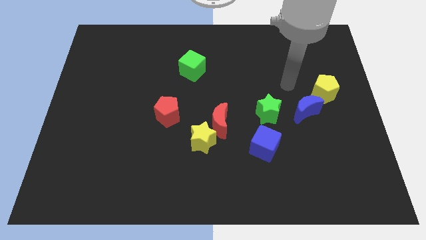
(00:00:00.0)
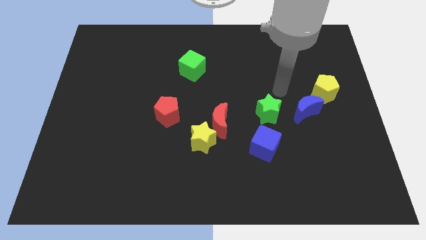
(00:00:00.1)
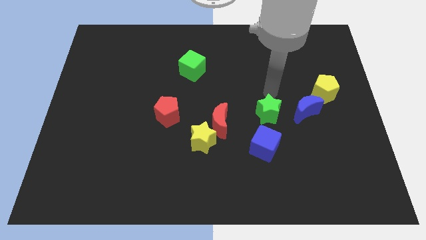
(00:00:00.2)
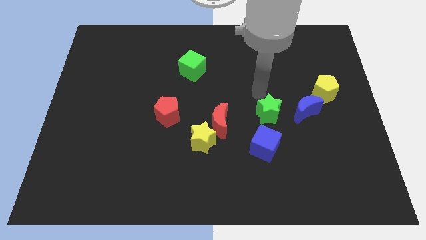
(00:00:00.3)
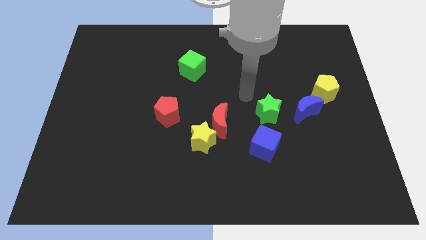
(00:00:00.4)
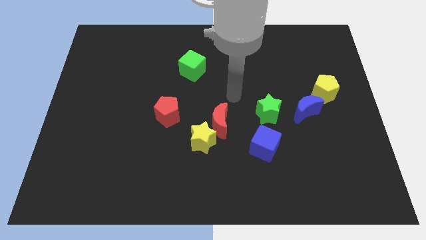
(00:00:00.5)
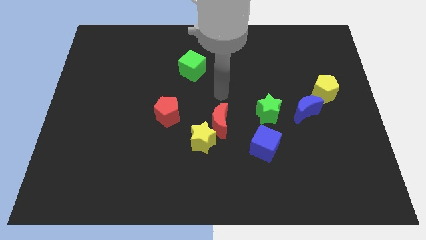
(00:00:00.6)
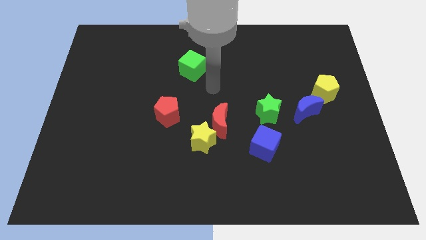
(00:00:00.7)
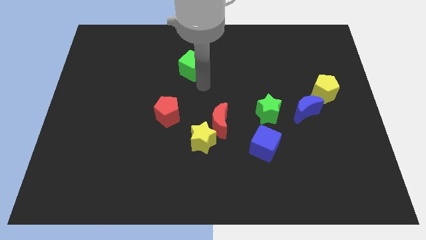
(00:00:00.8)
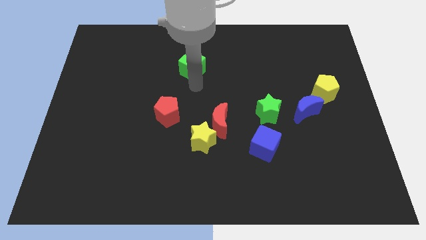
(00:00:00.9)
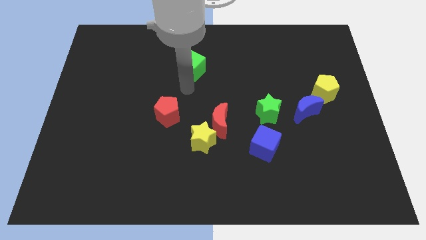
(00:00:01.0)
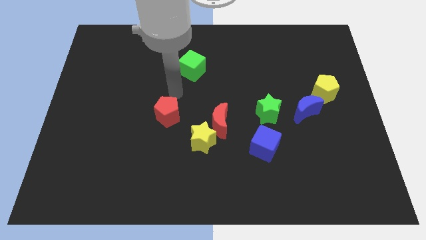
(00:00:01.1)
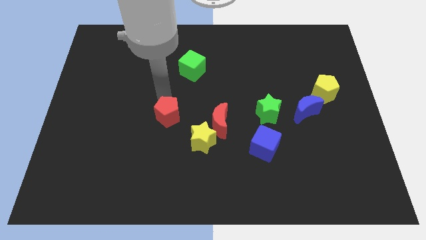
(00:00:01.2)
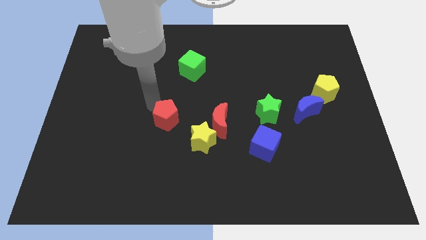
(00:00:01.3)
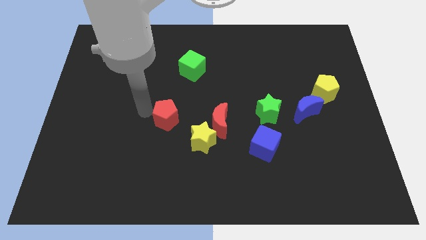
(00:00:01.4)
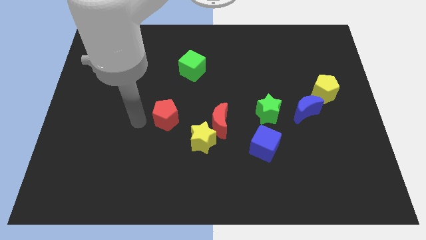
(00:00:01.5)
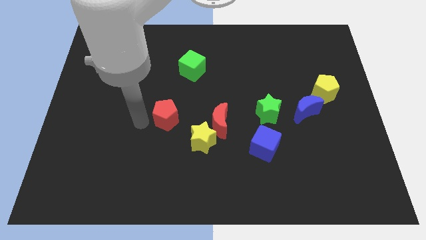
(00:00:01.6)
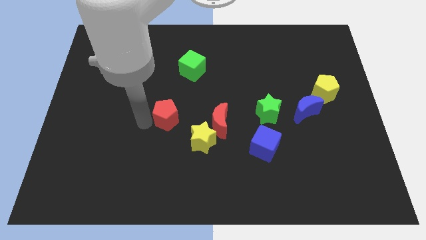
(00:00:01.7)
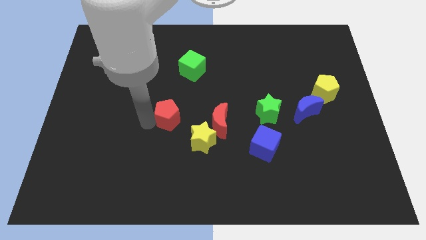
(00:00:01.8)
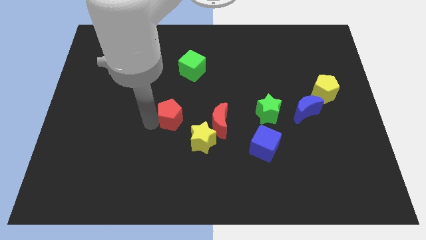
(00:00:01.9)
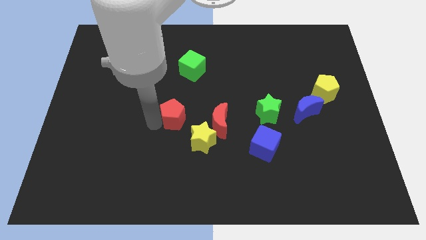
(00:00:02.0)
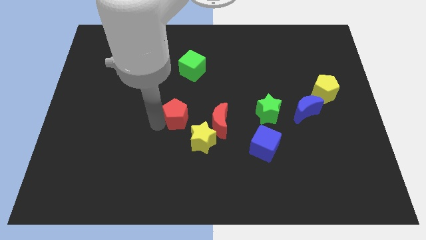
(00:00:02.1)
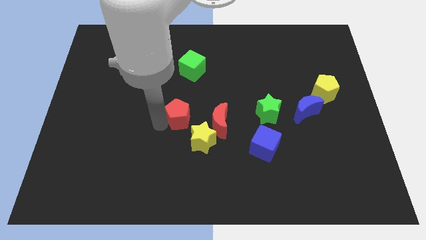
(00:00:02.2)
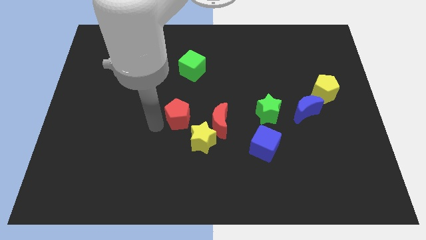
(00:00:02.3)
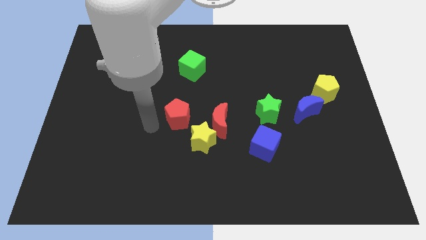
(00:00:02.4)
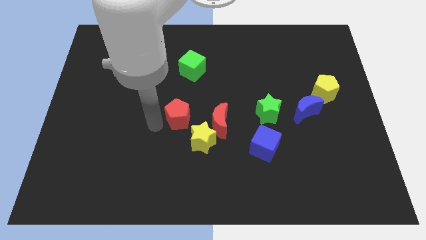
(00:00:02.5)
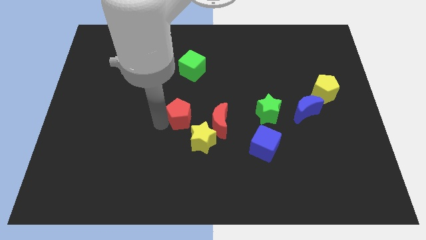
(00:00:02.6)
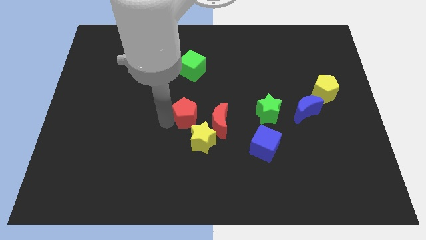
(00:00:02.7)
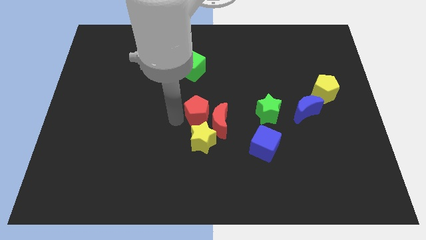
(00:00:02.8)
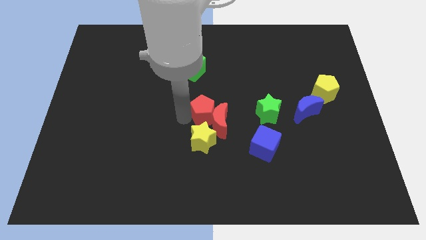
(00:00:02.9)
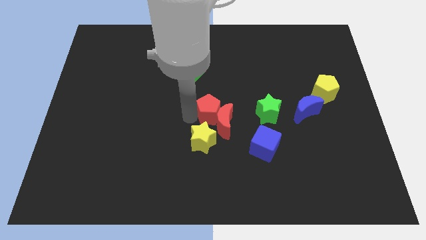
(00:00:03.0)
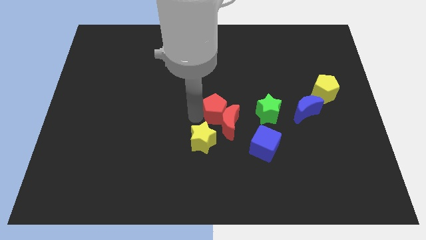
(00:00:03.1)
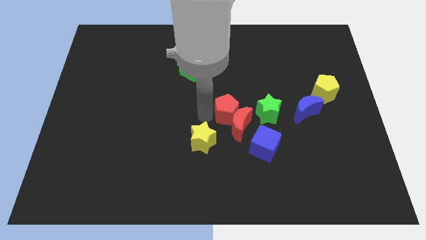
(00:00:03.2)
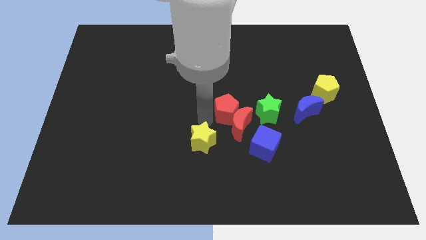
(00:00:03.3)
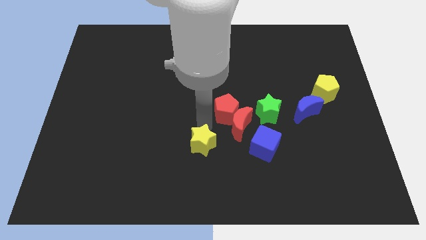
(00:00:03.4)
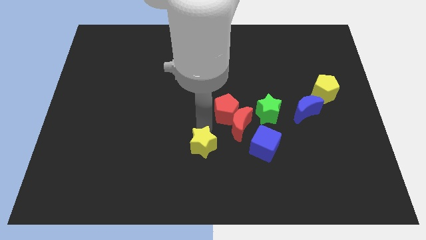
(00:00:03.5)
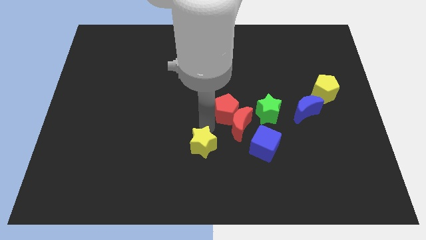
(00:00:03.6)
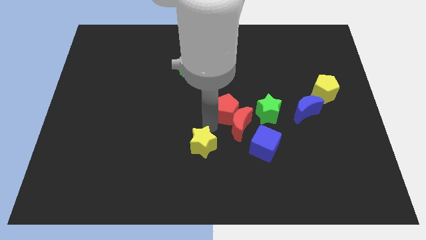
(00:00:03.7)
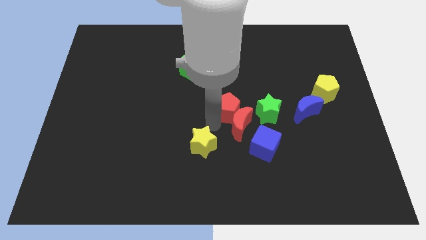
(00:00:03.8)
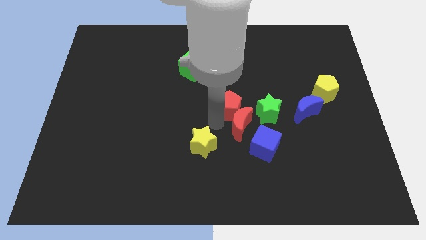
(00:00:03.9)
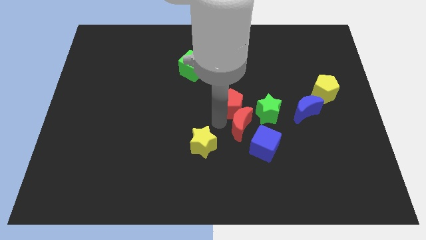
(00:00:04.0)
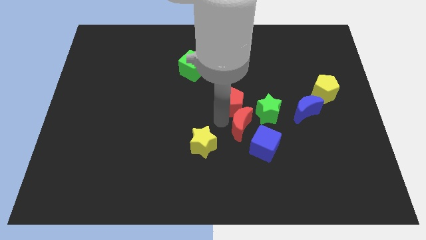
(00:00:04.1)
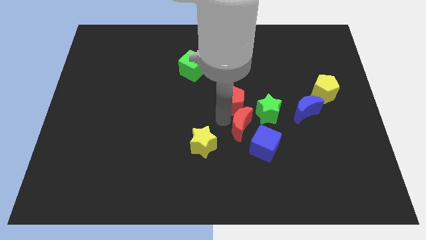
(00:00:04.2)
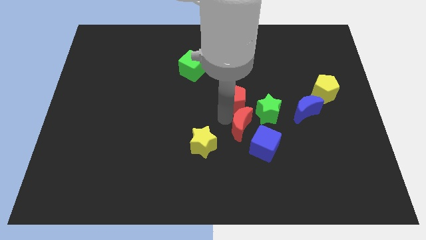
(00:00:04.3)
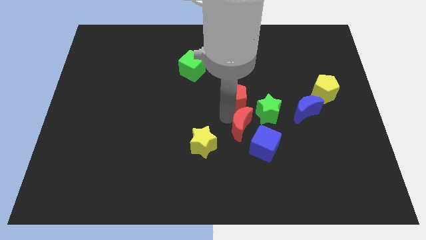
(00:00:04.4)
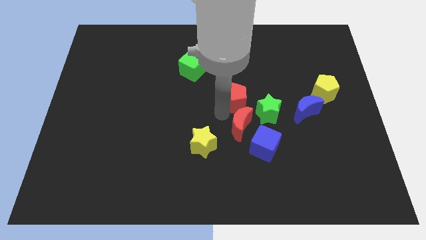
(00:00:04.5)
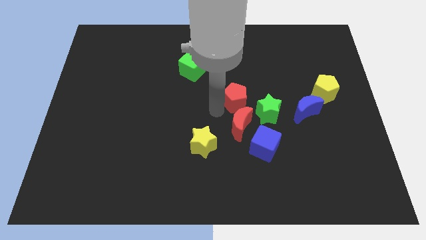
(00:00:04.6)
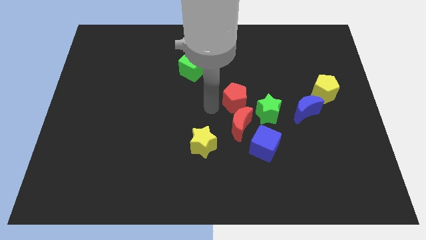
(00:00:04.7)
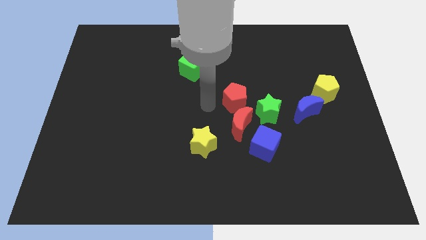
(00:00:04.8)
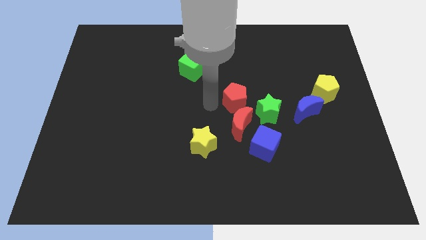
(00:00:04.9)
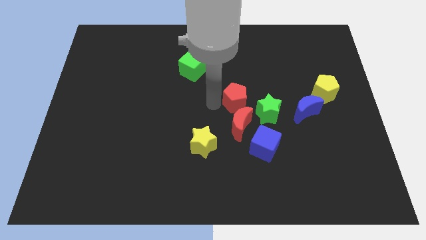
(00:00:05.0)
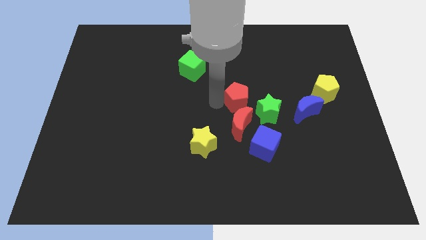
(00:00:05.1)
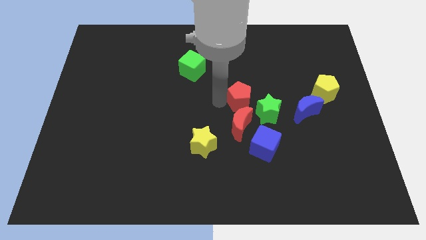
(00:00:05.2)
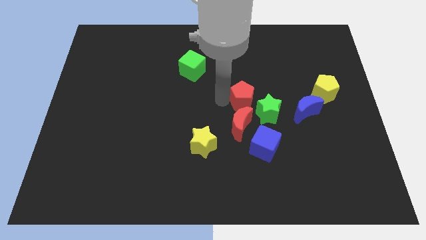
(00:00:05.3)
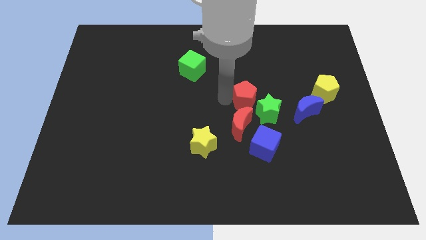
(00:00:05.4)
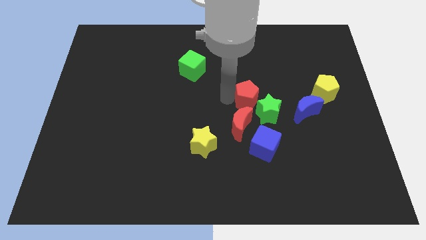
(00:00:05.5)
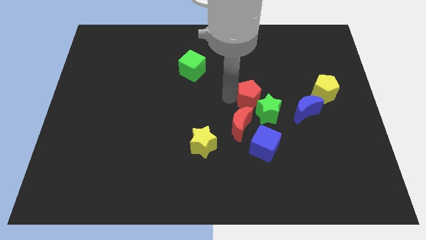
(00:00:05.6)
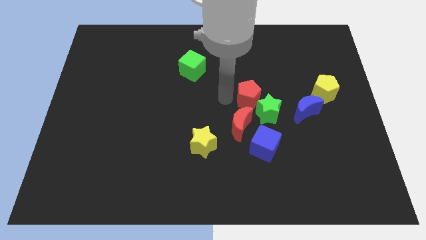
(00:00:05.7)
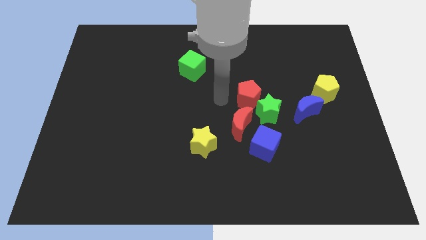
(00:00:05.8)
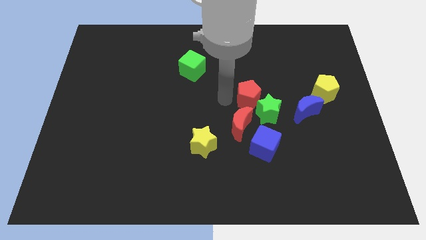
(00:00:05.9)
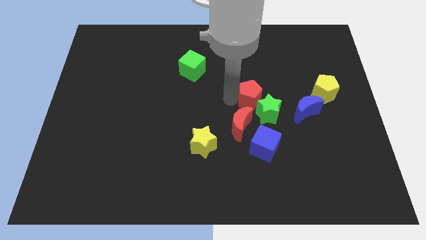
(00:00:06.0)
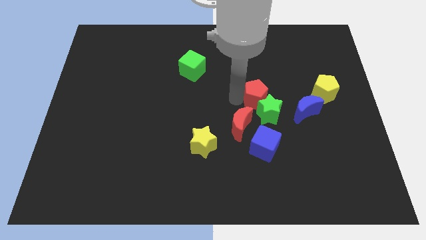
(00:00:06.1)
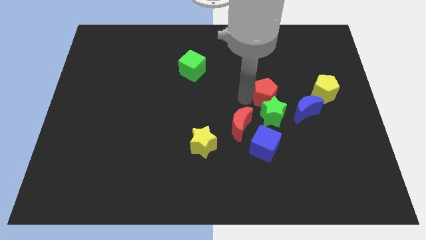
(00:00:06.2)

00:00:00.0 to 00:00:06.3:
move the red pentagon to the top right side of the green star

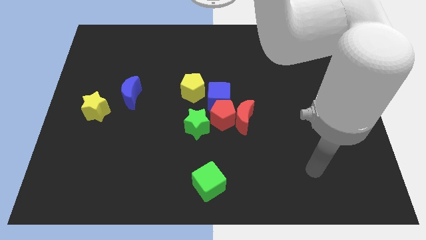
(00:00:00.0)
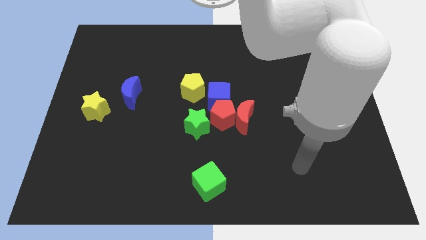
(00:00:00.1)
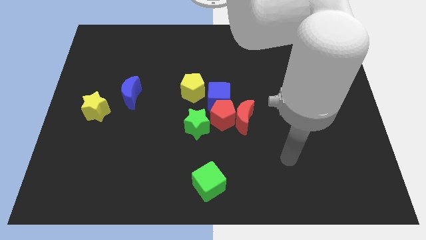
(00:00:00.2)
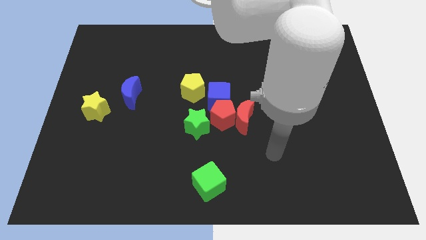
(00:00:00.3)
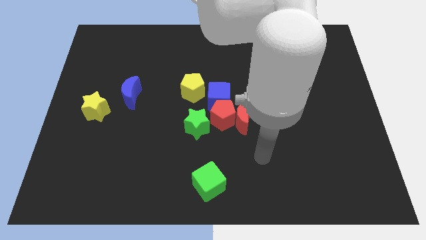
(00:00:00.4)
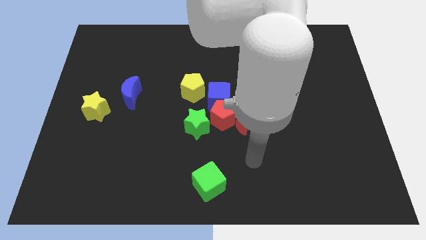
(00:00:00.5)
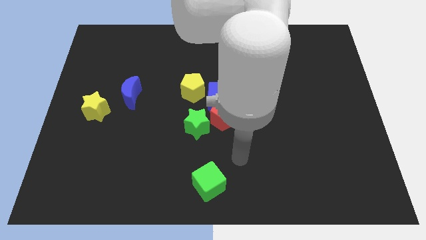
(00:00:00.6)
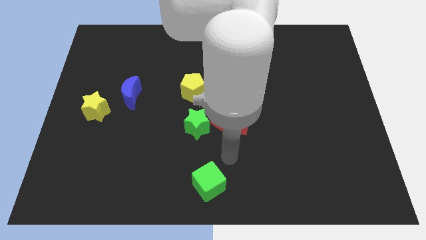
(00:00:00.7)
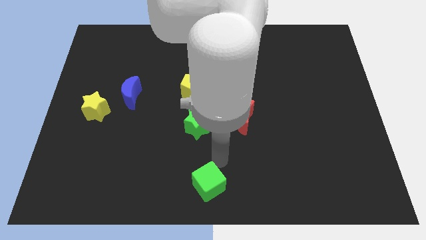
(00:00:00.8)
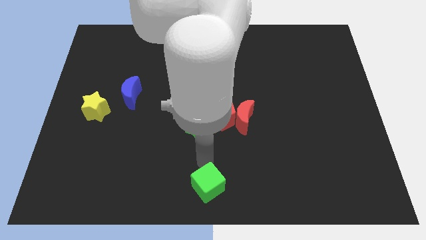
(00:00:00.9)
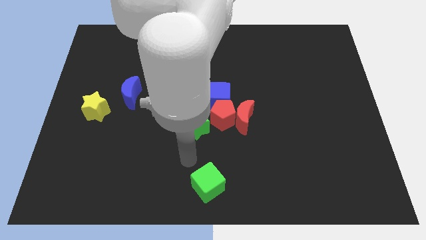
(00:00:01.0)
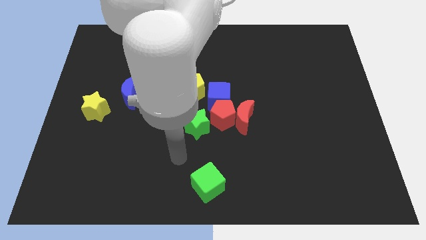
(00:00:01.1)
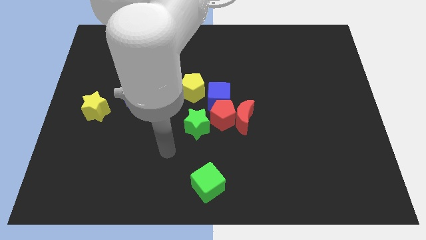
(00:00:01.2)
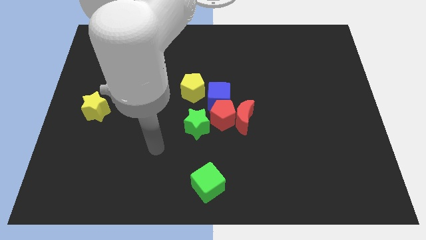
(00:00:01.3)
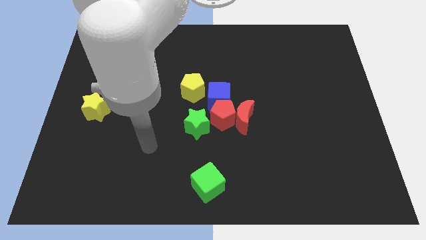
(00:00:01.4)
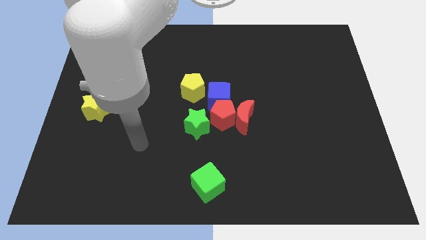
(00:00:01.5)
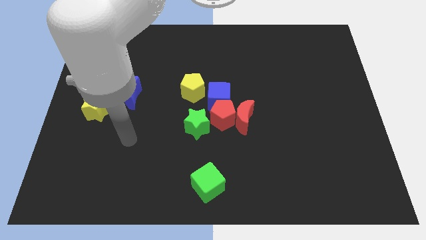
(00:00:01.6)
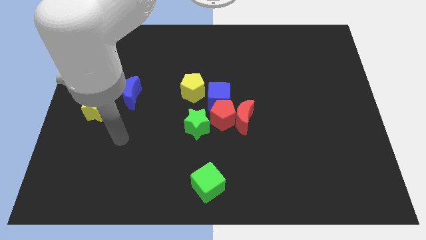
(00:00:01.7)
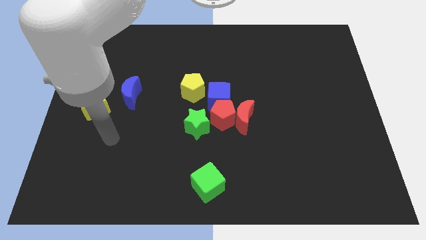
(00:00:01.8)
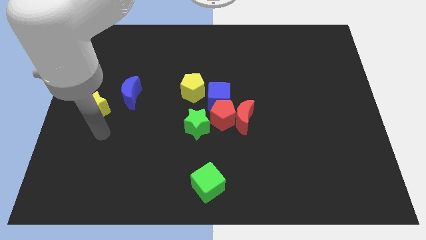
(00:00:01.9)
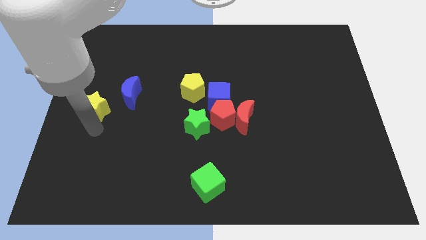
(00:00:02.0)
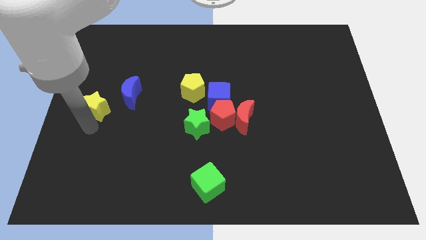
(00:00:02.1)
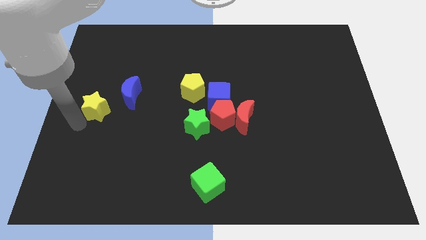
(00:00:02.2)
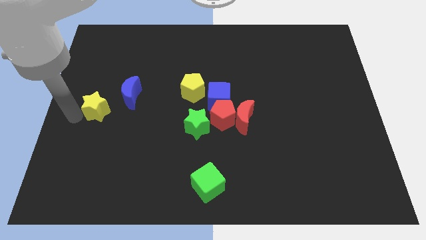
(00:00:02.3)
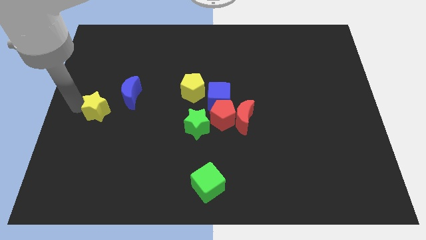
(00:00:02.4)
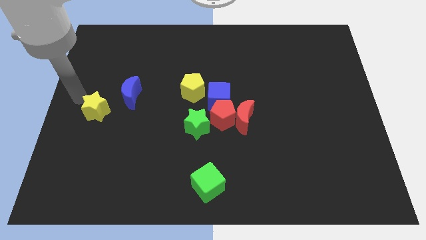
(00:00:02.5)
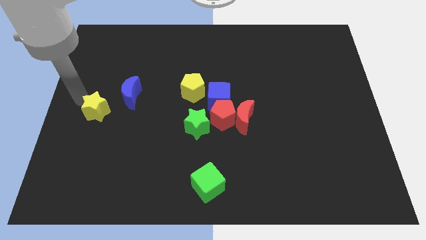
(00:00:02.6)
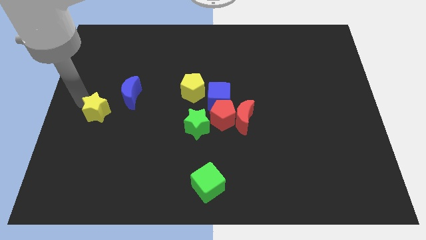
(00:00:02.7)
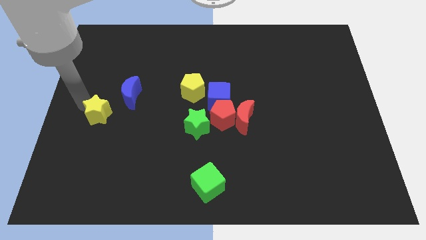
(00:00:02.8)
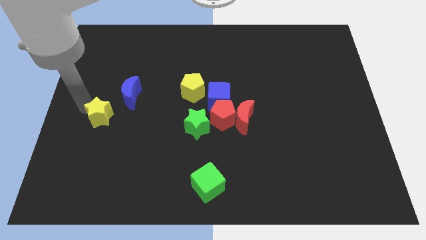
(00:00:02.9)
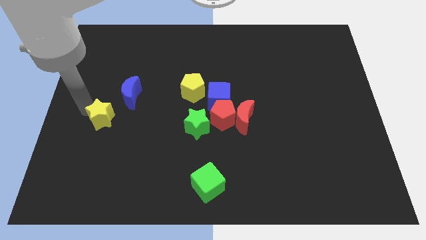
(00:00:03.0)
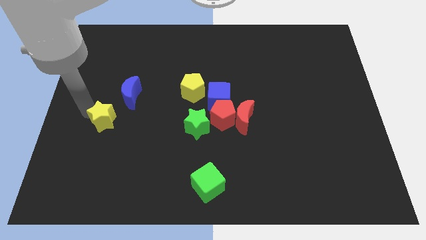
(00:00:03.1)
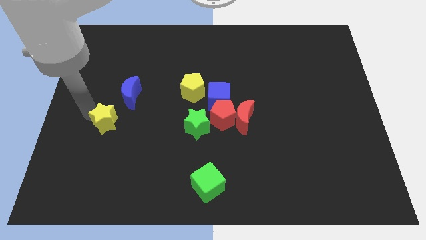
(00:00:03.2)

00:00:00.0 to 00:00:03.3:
push the yellow star to the bottom side of the blue moon
